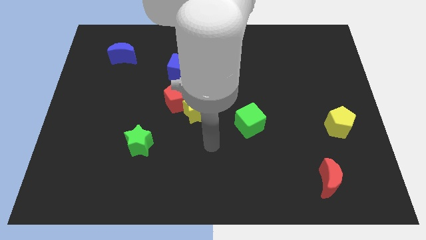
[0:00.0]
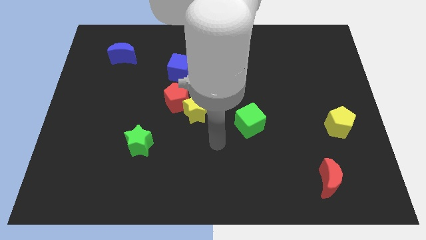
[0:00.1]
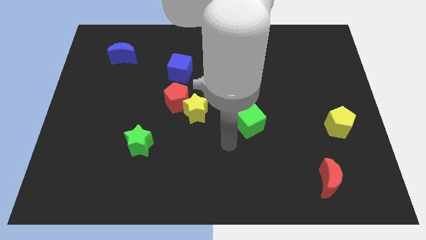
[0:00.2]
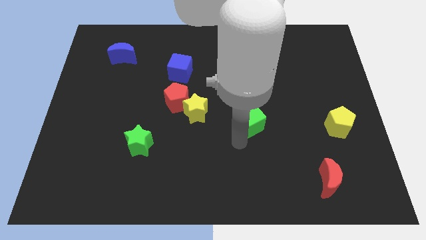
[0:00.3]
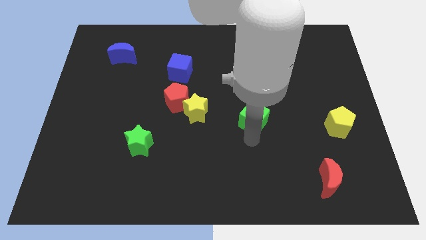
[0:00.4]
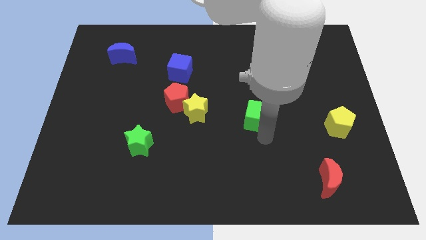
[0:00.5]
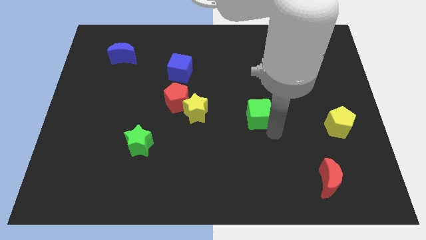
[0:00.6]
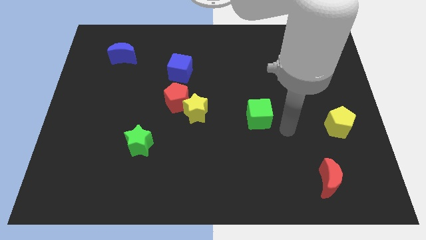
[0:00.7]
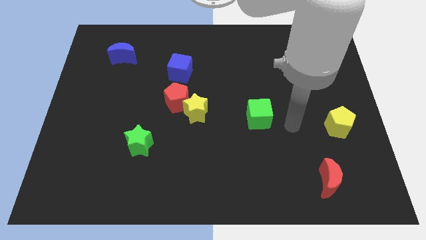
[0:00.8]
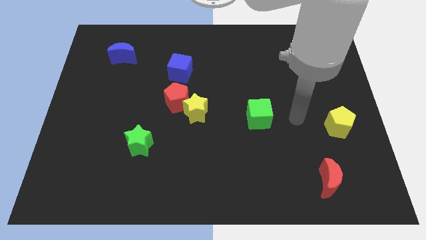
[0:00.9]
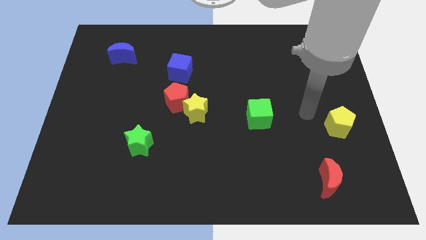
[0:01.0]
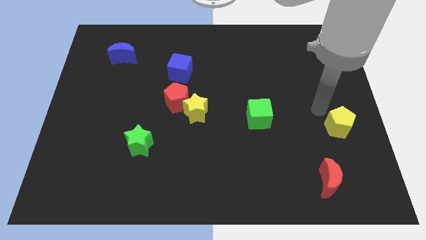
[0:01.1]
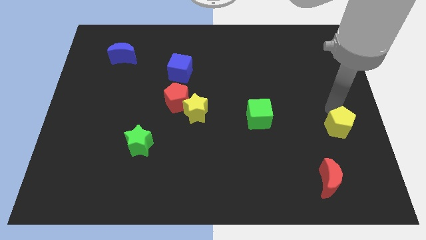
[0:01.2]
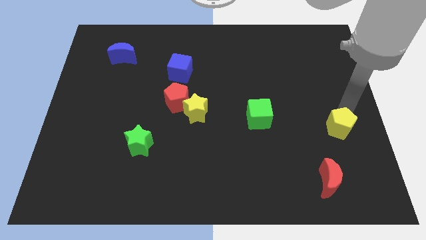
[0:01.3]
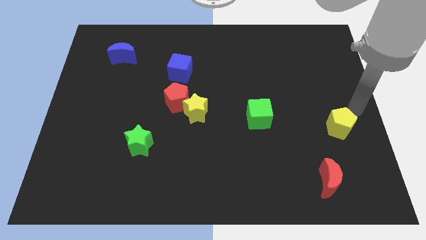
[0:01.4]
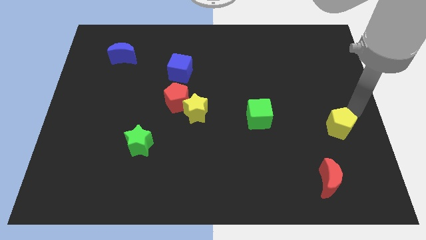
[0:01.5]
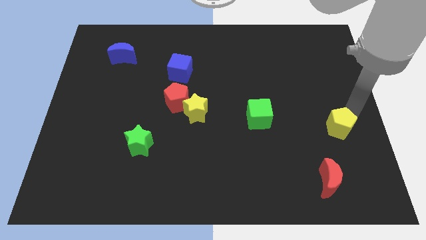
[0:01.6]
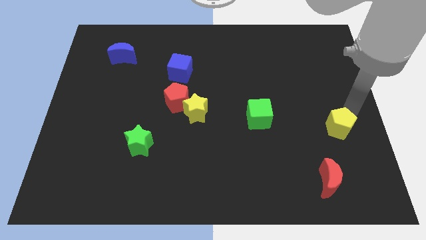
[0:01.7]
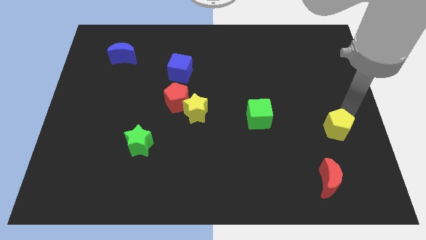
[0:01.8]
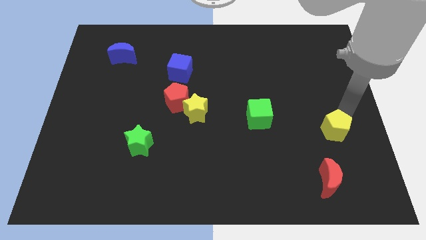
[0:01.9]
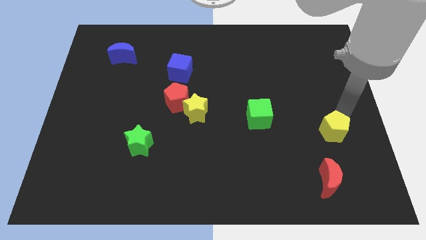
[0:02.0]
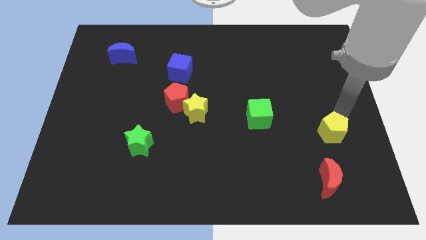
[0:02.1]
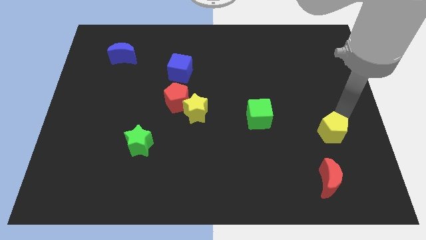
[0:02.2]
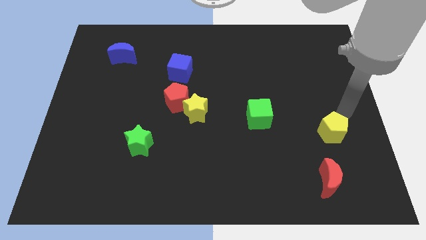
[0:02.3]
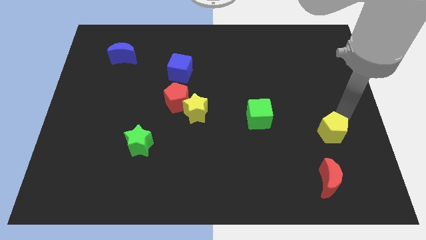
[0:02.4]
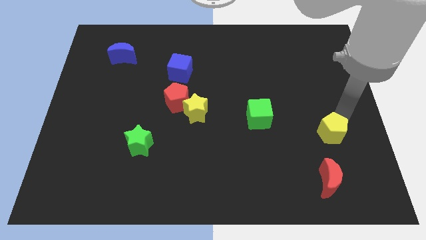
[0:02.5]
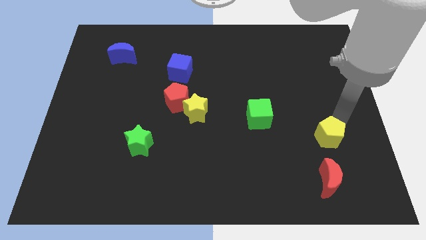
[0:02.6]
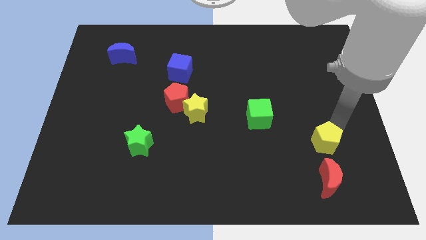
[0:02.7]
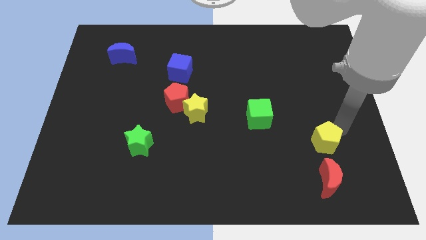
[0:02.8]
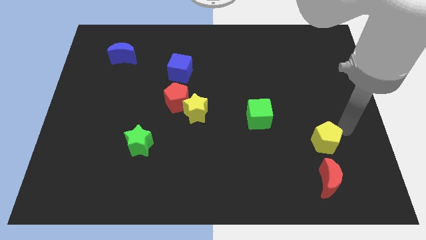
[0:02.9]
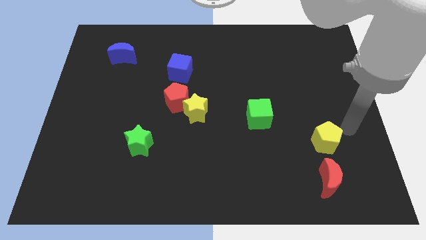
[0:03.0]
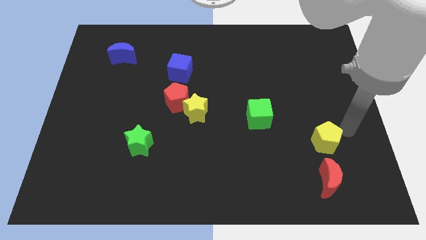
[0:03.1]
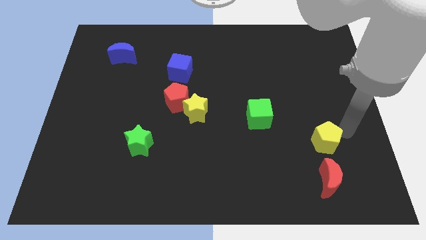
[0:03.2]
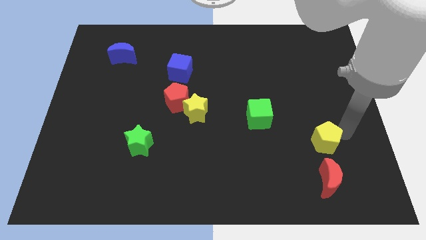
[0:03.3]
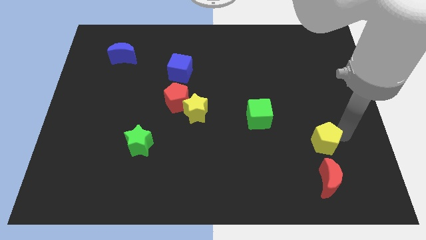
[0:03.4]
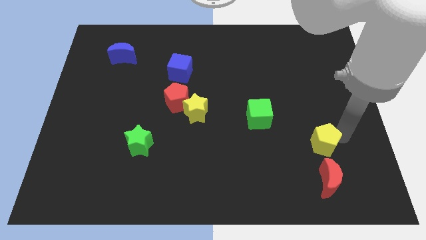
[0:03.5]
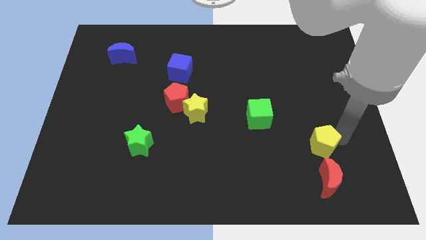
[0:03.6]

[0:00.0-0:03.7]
slide the yellow pentagon a little bit downwards and to the left diagonally

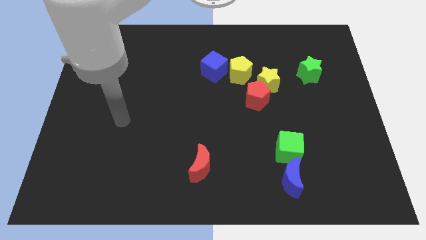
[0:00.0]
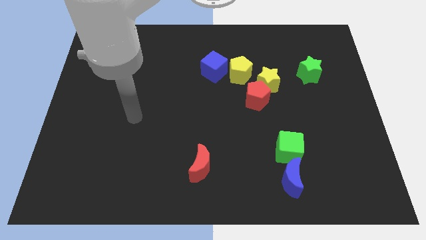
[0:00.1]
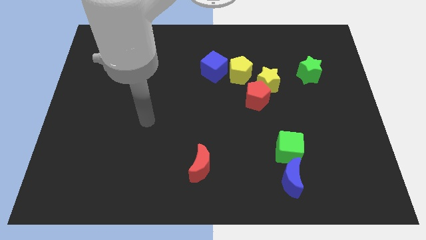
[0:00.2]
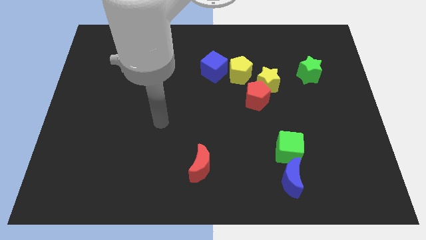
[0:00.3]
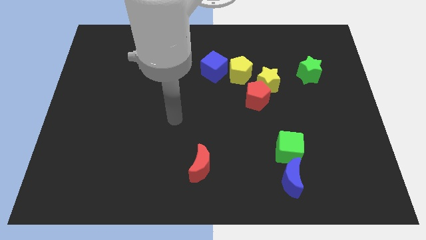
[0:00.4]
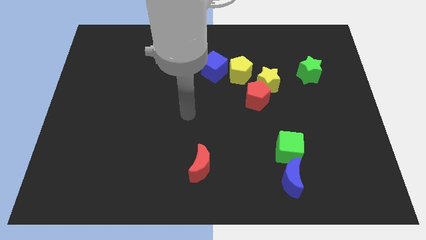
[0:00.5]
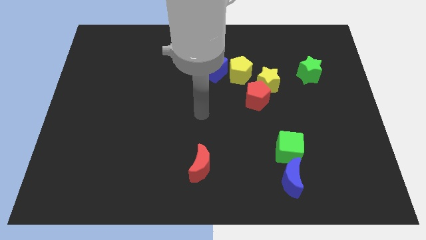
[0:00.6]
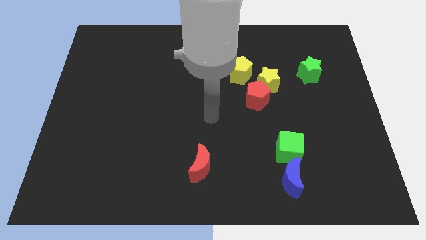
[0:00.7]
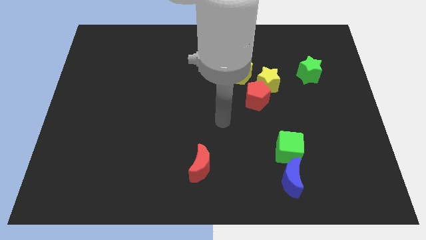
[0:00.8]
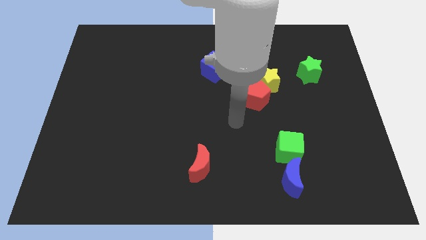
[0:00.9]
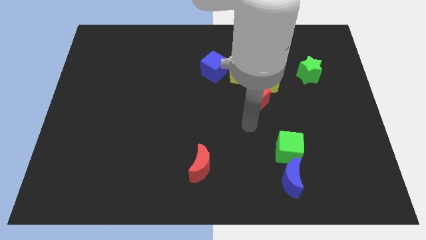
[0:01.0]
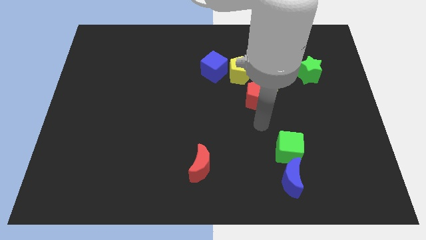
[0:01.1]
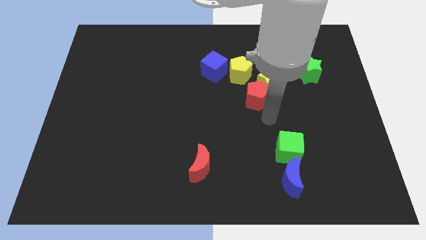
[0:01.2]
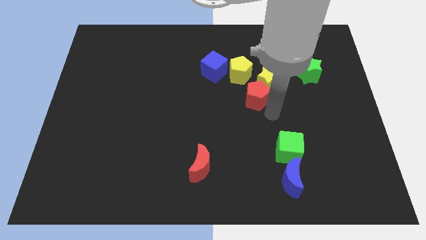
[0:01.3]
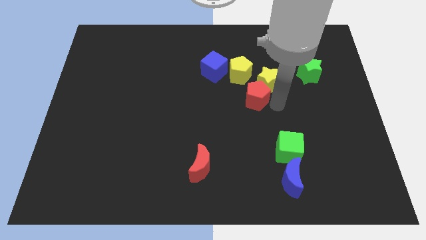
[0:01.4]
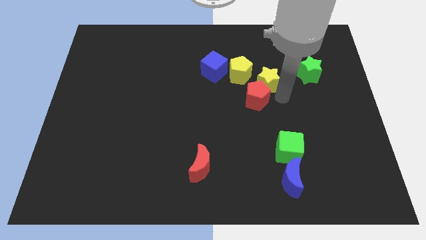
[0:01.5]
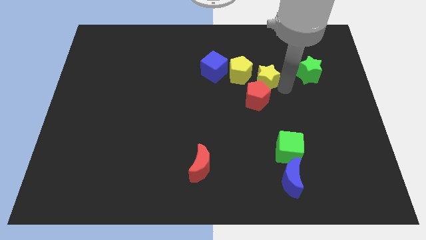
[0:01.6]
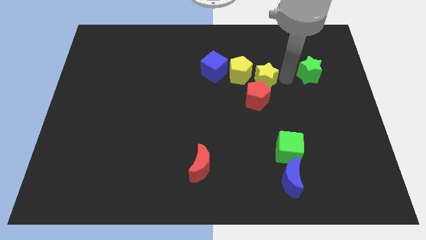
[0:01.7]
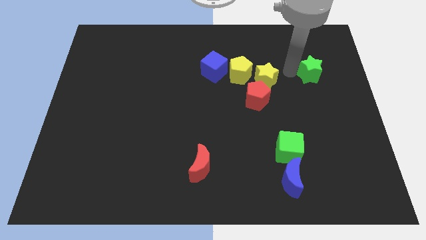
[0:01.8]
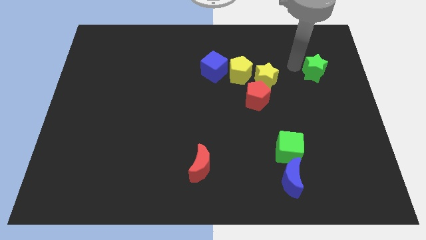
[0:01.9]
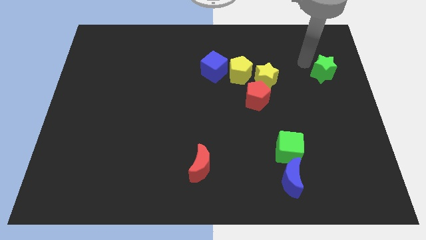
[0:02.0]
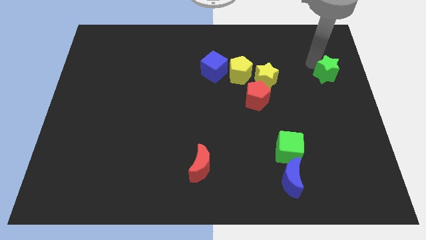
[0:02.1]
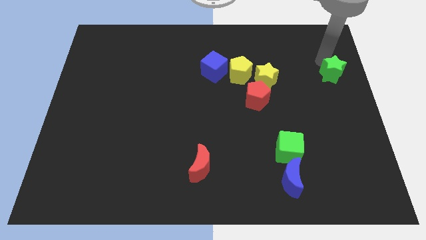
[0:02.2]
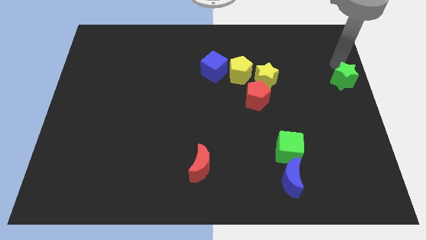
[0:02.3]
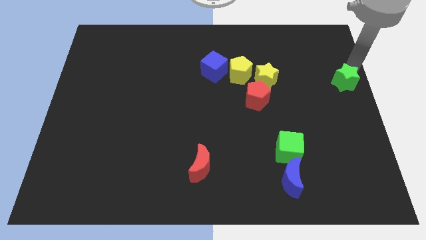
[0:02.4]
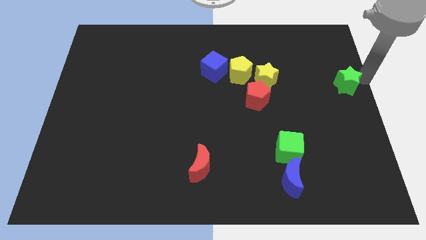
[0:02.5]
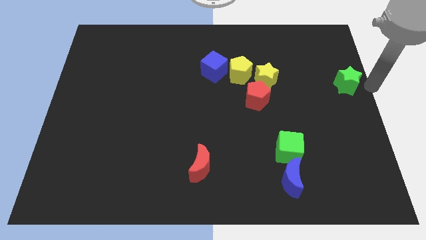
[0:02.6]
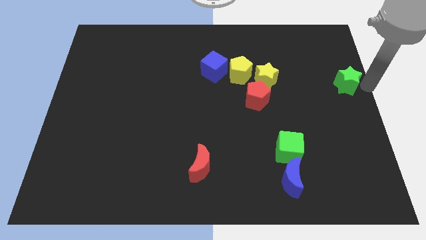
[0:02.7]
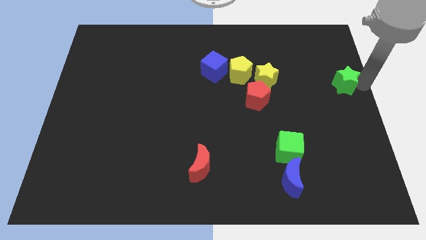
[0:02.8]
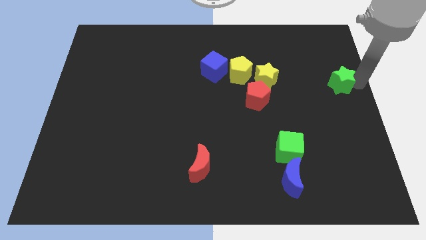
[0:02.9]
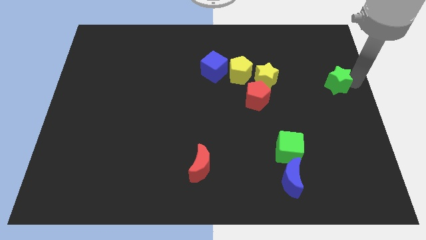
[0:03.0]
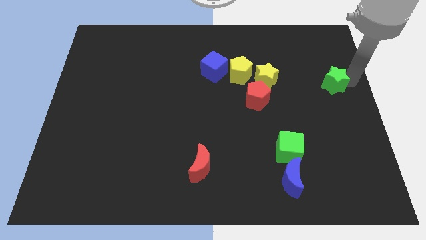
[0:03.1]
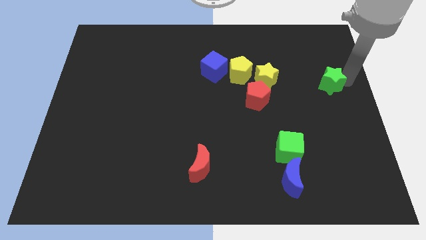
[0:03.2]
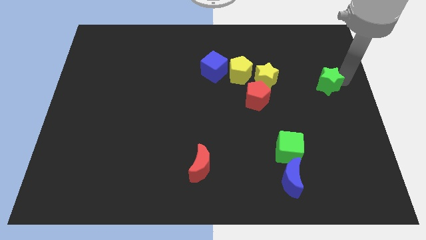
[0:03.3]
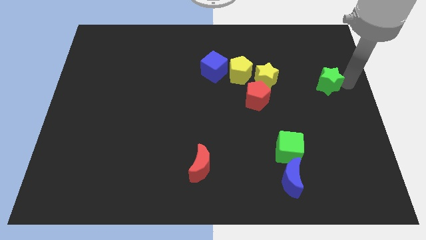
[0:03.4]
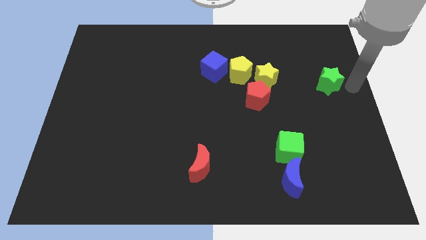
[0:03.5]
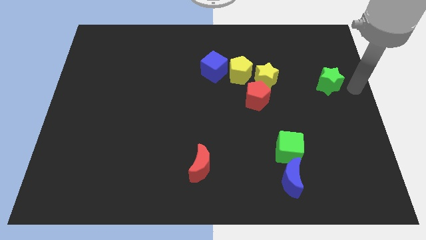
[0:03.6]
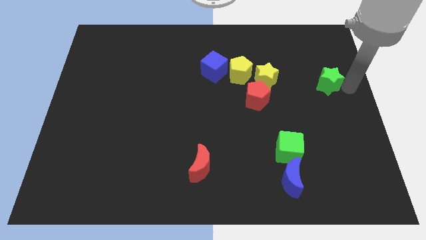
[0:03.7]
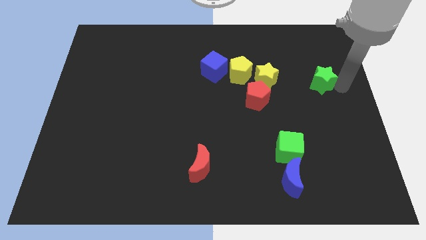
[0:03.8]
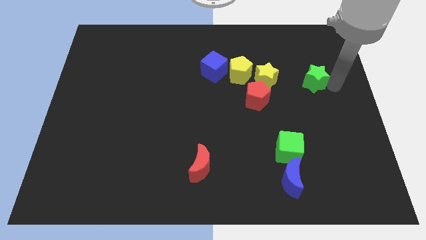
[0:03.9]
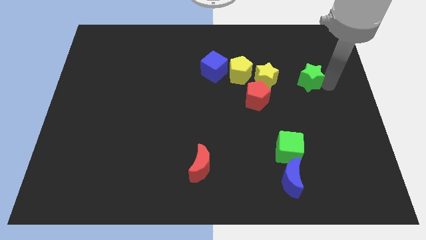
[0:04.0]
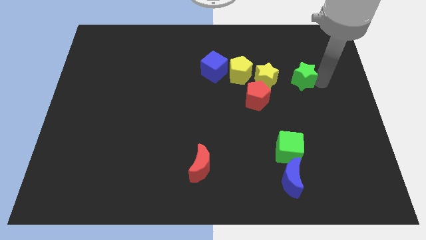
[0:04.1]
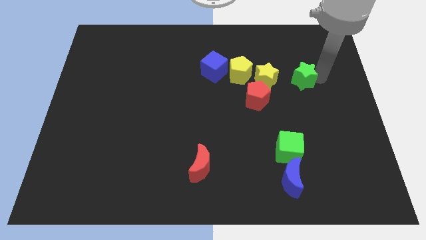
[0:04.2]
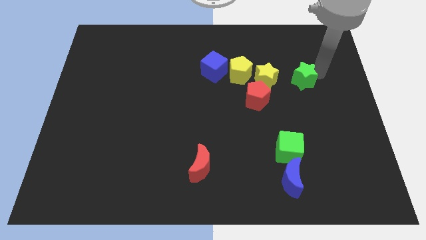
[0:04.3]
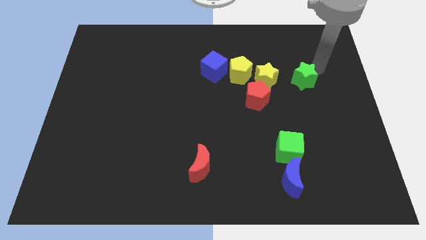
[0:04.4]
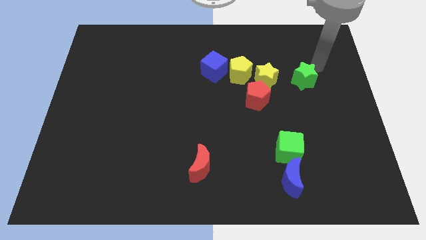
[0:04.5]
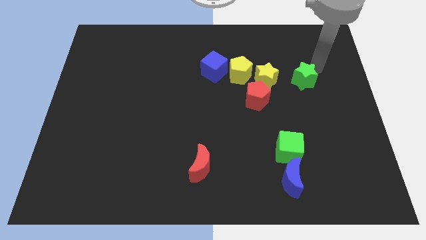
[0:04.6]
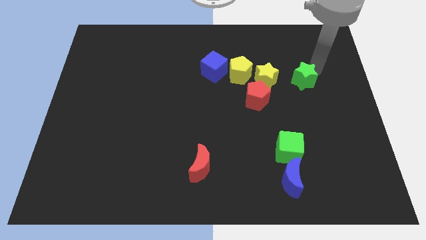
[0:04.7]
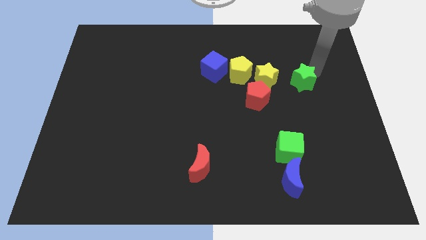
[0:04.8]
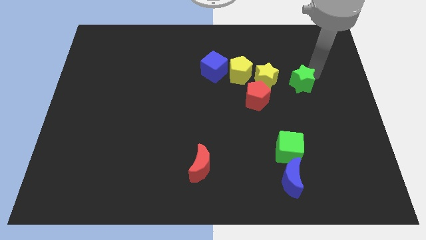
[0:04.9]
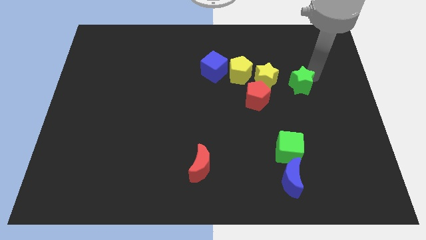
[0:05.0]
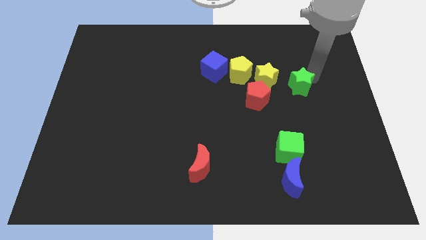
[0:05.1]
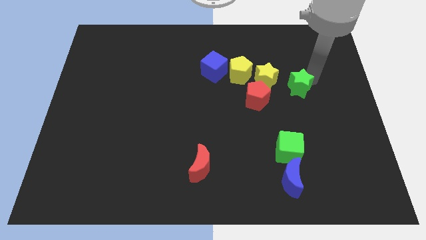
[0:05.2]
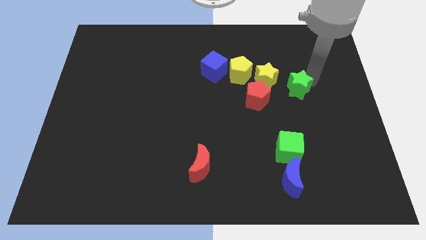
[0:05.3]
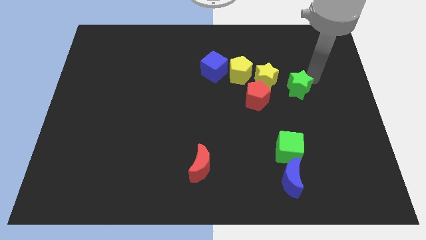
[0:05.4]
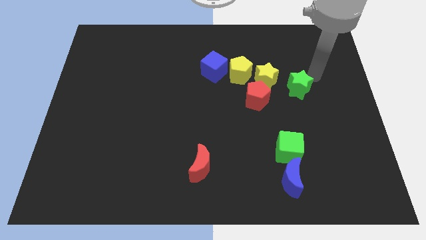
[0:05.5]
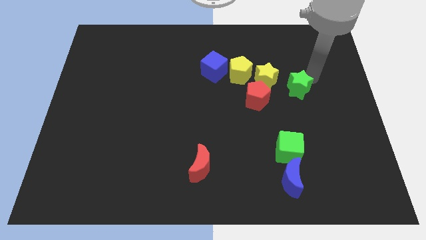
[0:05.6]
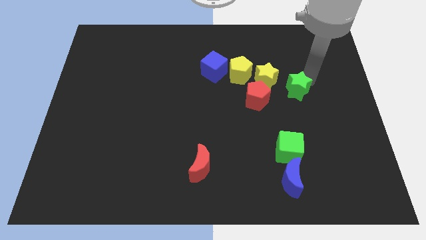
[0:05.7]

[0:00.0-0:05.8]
slide the green star a little bit diagonally down and to the left
